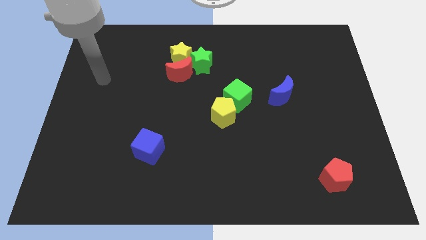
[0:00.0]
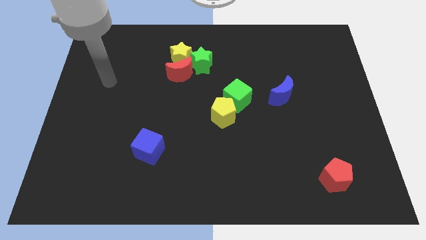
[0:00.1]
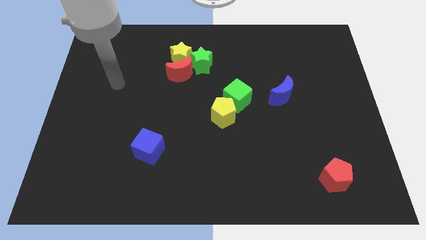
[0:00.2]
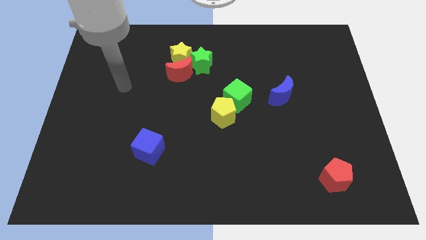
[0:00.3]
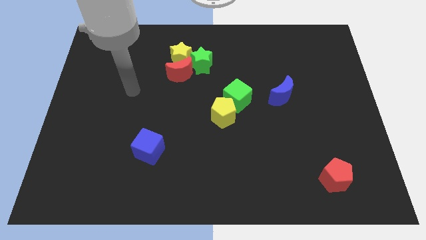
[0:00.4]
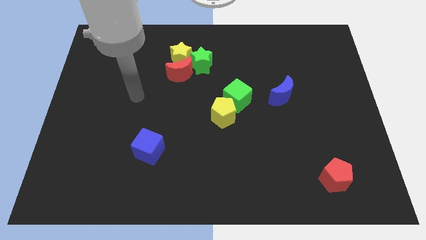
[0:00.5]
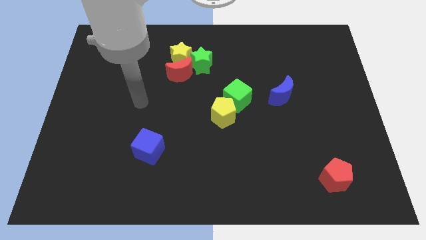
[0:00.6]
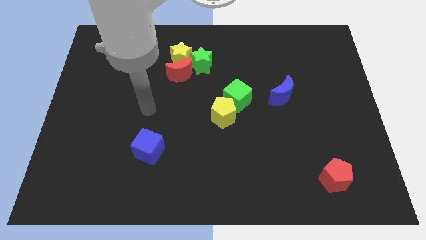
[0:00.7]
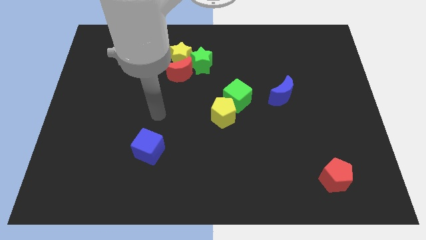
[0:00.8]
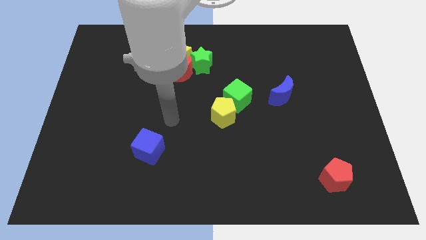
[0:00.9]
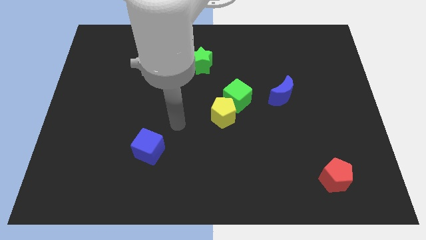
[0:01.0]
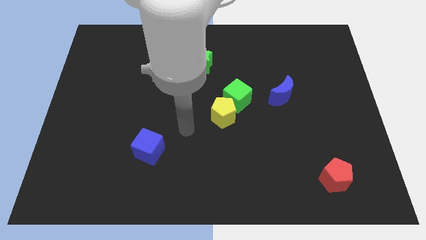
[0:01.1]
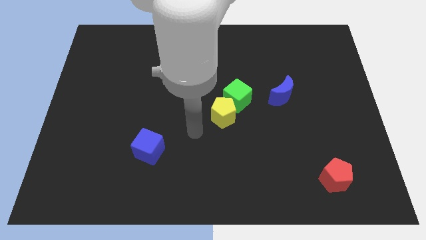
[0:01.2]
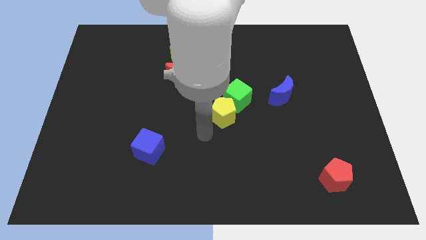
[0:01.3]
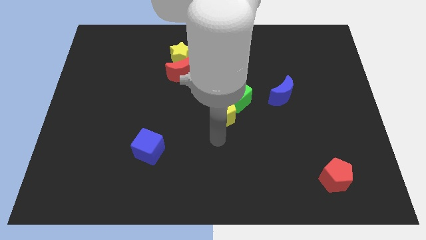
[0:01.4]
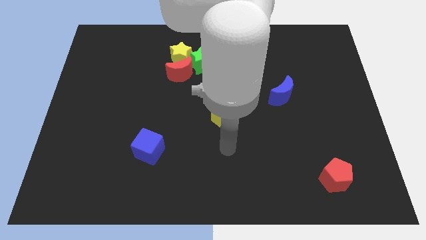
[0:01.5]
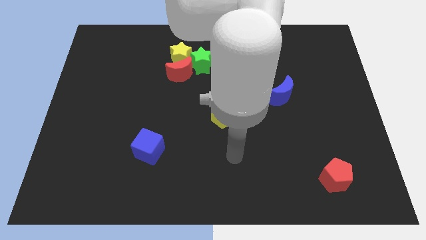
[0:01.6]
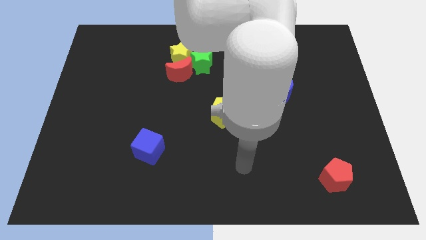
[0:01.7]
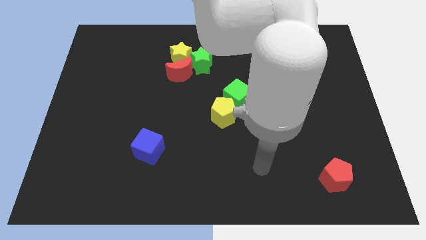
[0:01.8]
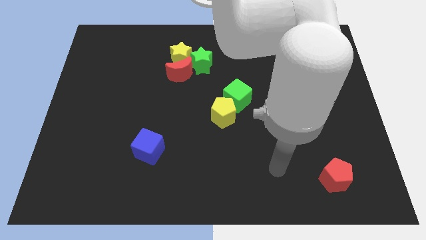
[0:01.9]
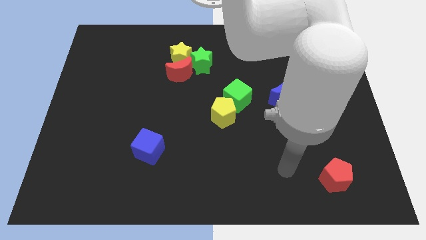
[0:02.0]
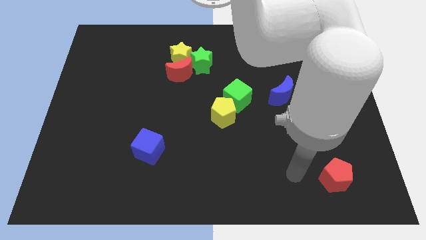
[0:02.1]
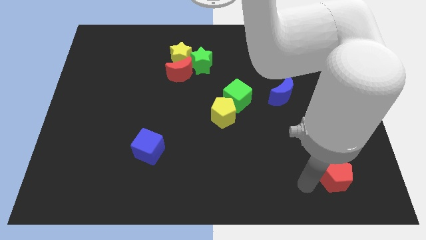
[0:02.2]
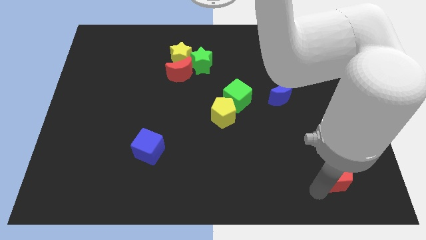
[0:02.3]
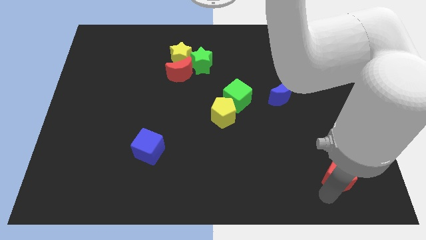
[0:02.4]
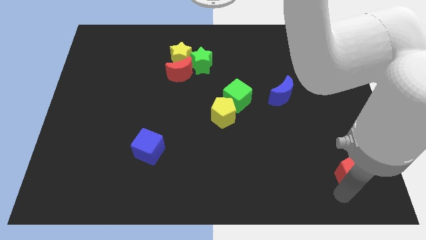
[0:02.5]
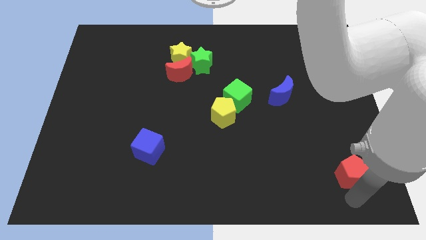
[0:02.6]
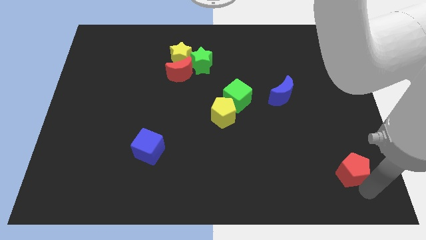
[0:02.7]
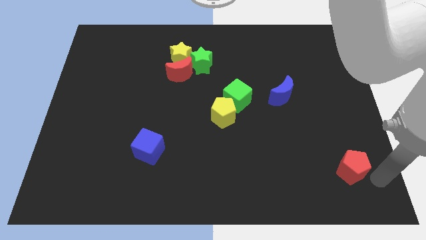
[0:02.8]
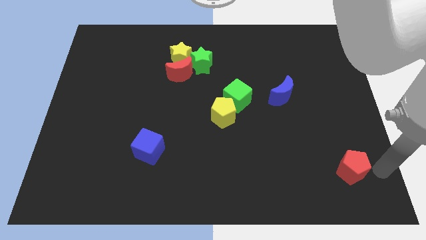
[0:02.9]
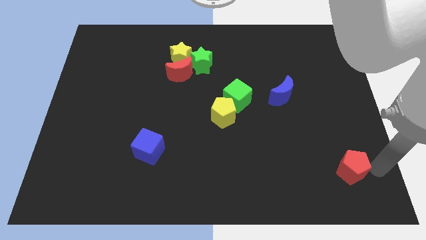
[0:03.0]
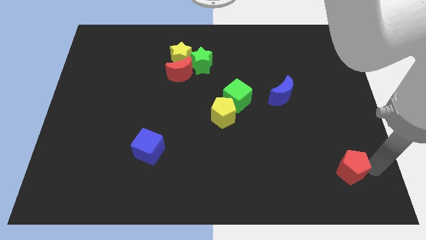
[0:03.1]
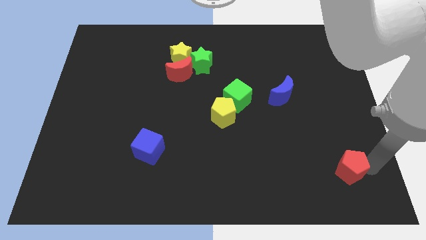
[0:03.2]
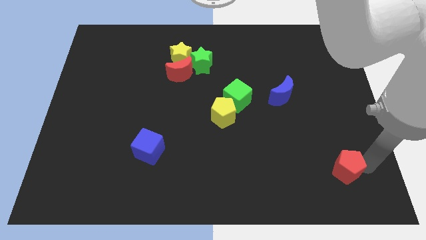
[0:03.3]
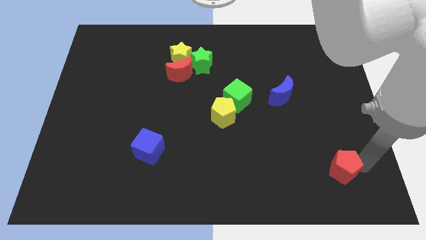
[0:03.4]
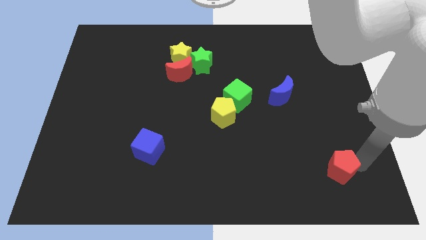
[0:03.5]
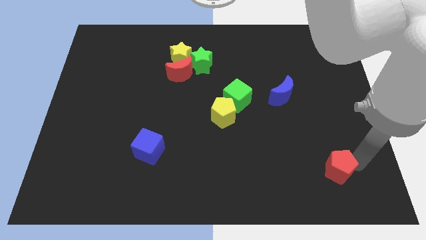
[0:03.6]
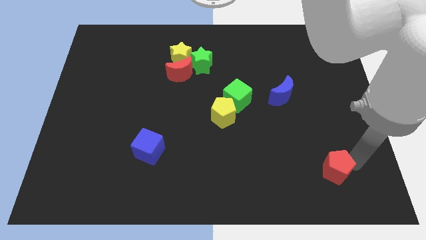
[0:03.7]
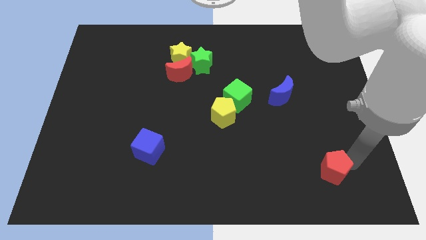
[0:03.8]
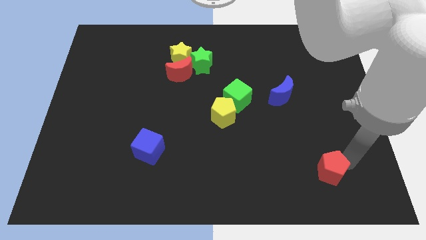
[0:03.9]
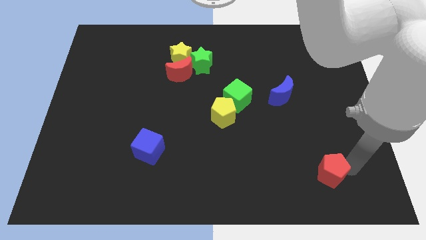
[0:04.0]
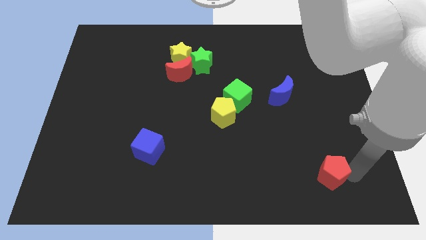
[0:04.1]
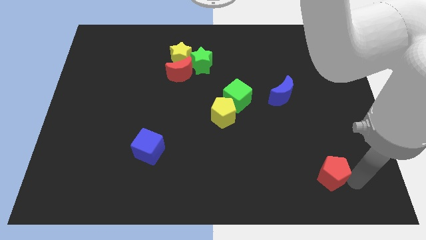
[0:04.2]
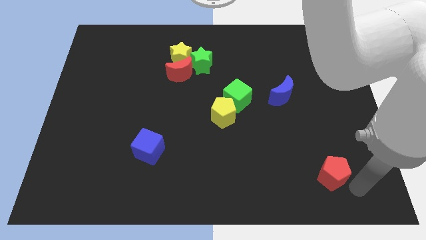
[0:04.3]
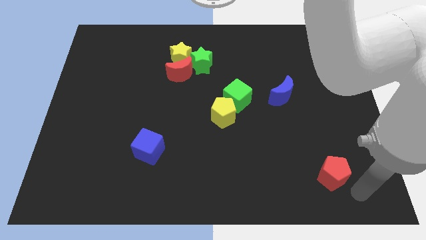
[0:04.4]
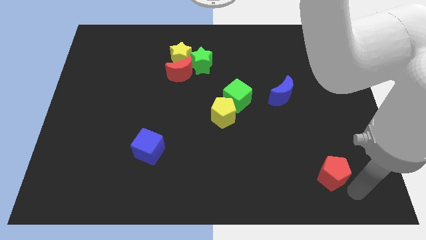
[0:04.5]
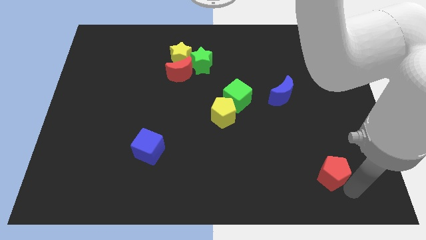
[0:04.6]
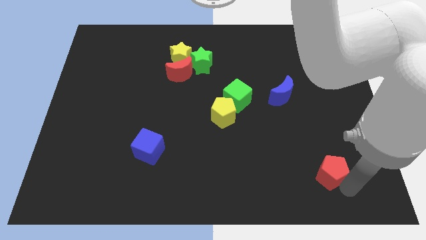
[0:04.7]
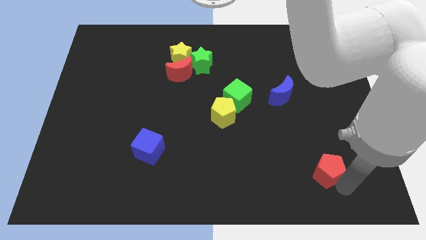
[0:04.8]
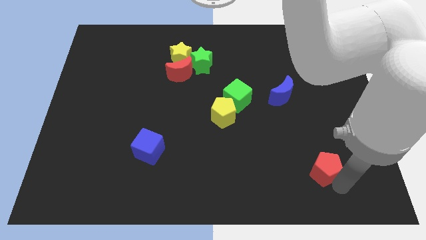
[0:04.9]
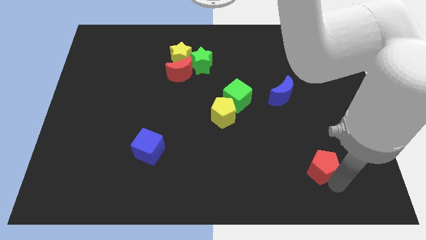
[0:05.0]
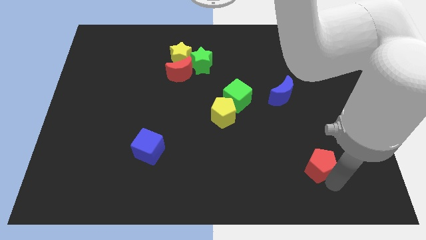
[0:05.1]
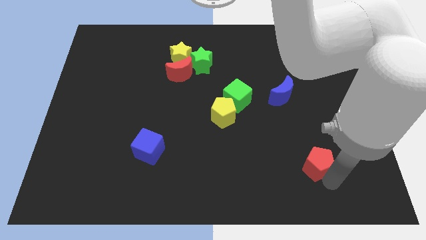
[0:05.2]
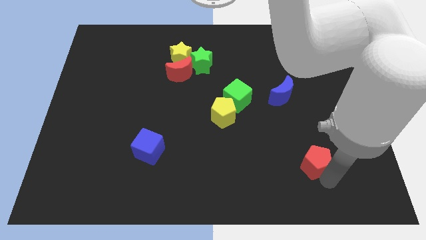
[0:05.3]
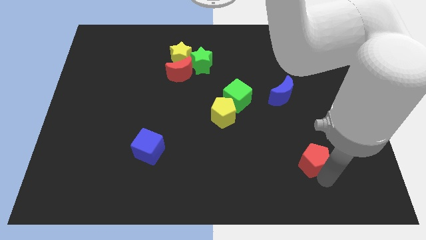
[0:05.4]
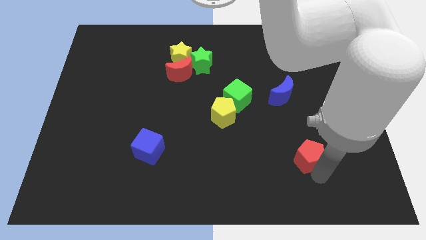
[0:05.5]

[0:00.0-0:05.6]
move the red pentagon somewhat diagonally up and to the left

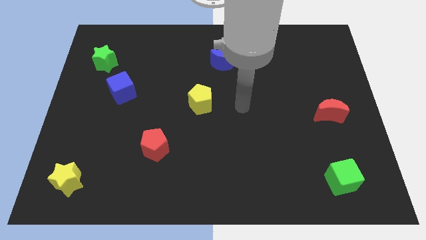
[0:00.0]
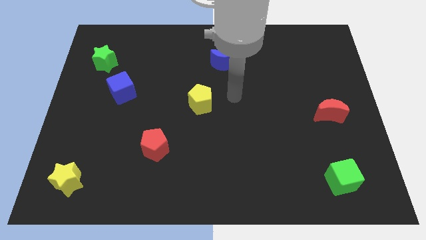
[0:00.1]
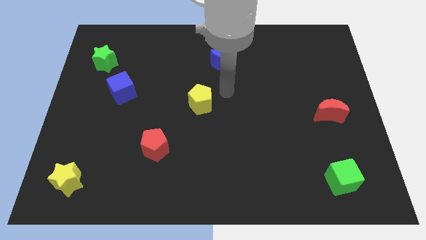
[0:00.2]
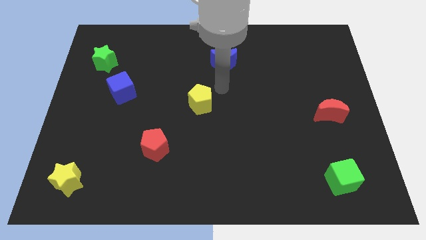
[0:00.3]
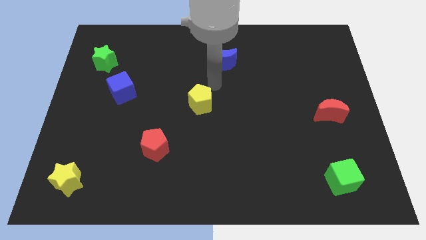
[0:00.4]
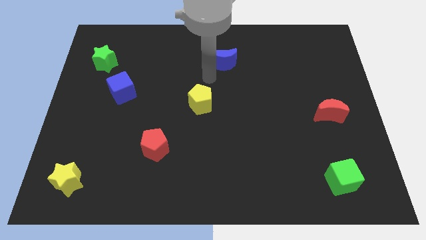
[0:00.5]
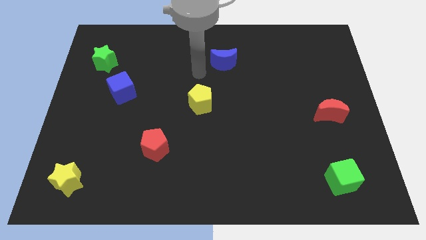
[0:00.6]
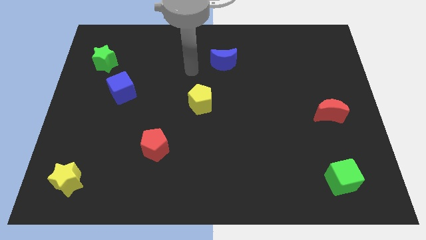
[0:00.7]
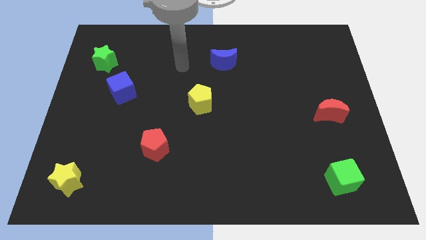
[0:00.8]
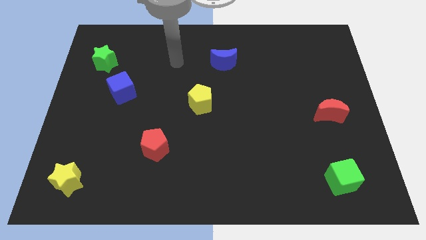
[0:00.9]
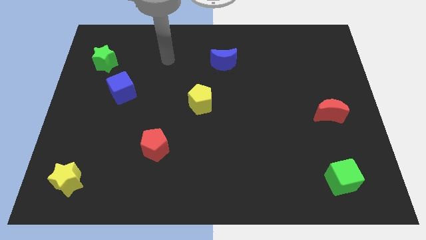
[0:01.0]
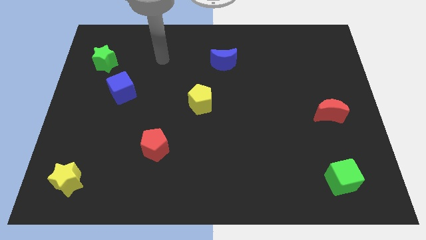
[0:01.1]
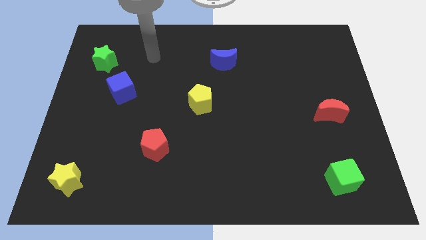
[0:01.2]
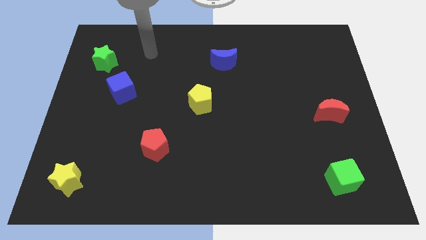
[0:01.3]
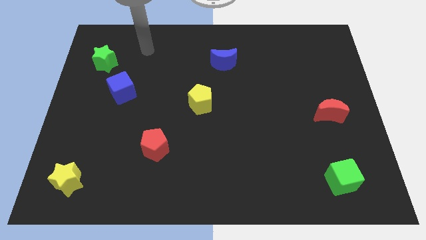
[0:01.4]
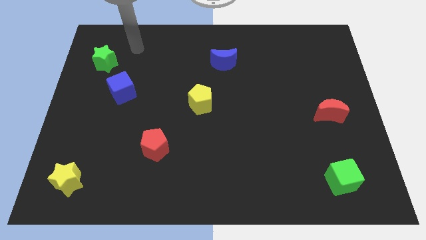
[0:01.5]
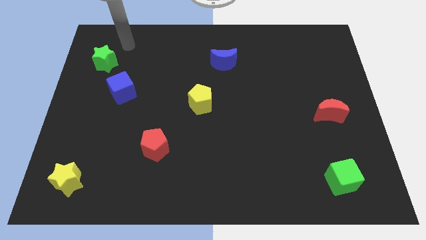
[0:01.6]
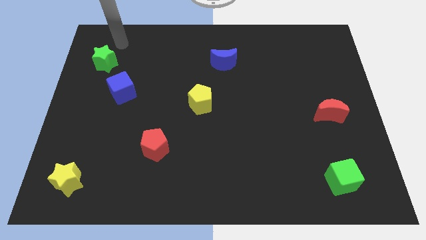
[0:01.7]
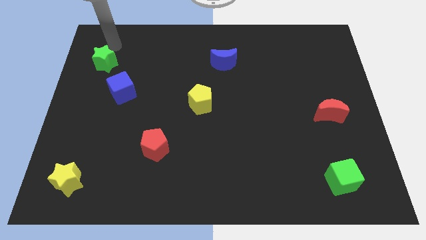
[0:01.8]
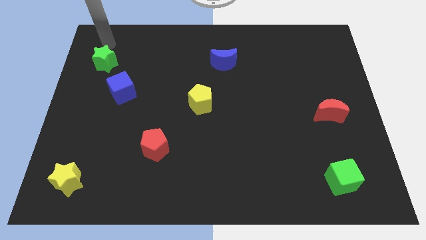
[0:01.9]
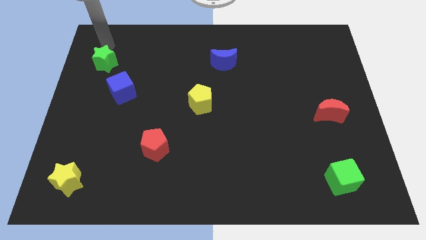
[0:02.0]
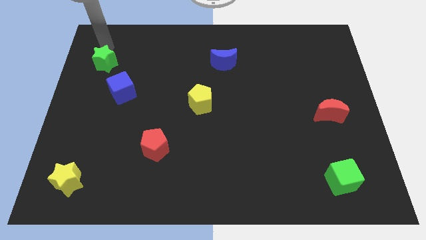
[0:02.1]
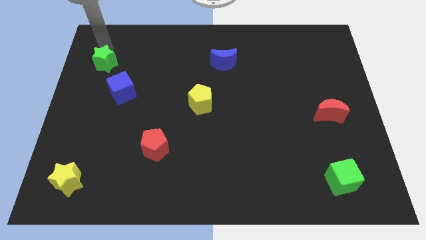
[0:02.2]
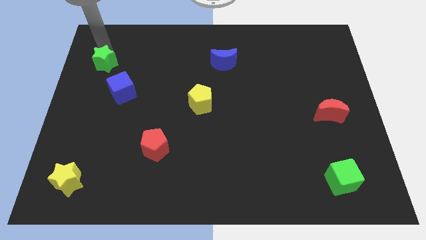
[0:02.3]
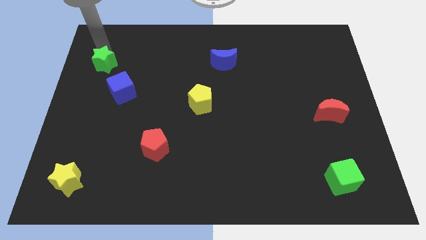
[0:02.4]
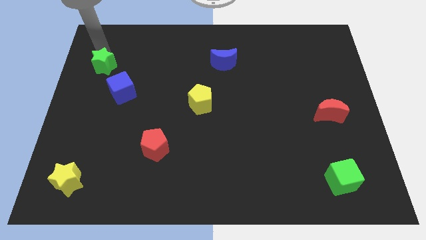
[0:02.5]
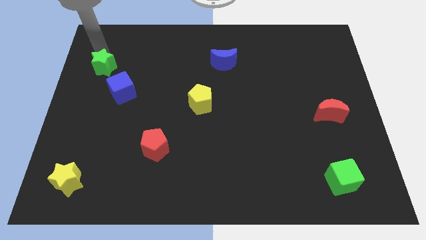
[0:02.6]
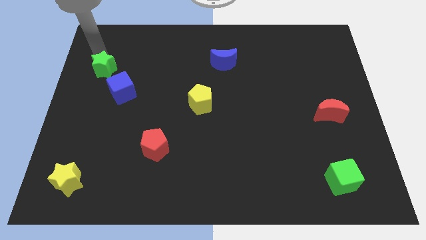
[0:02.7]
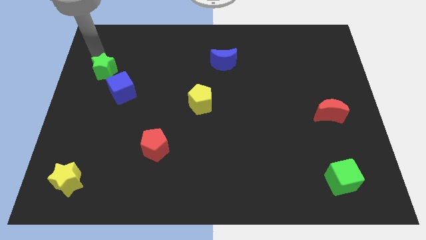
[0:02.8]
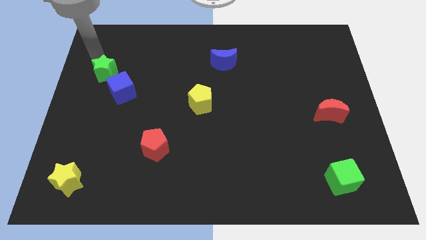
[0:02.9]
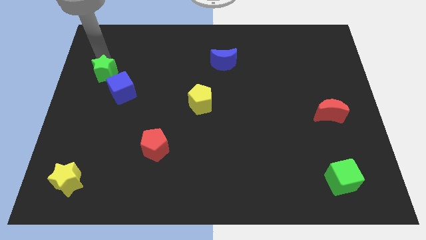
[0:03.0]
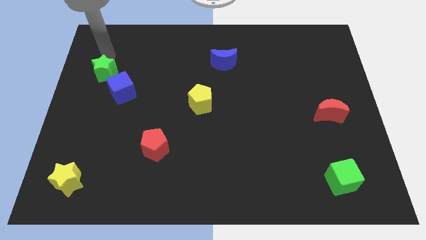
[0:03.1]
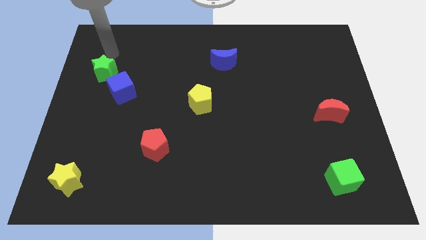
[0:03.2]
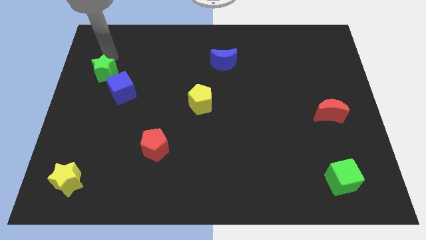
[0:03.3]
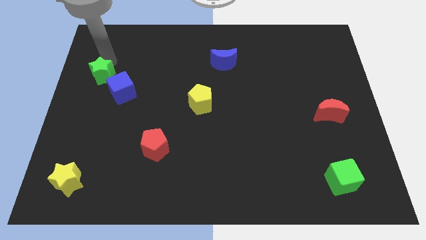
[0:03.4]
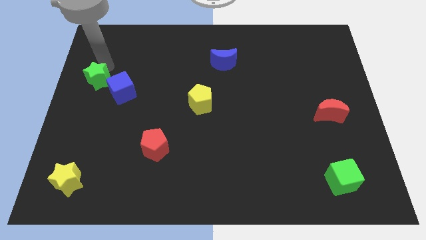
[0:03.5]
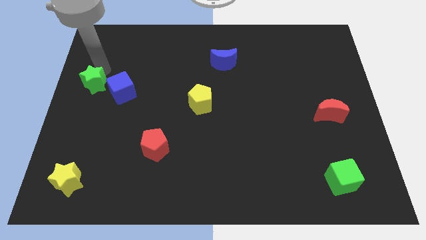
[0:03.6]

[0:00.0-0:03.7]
slightly slide the green star down
